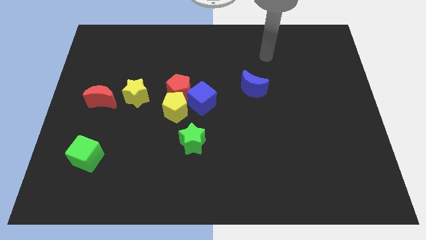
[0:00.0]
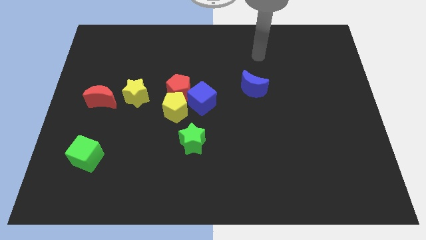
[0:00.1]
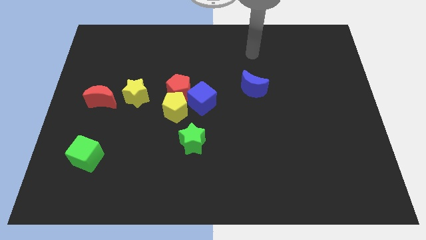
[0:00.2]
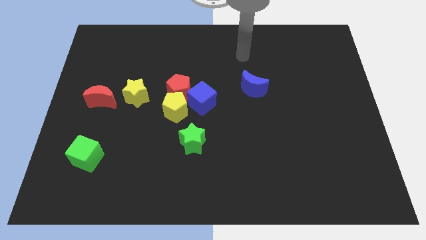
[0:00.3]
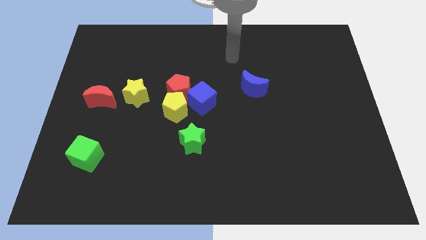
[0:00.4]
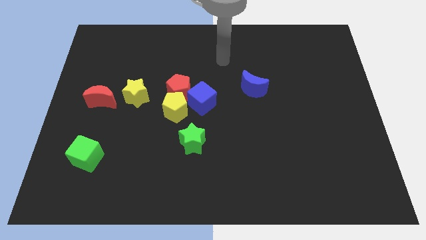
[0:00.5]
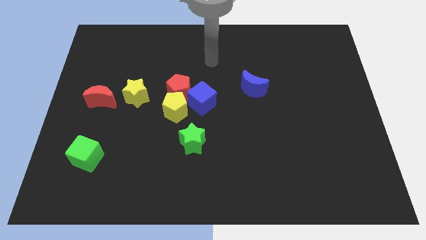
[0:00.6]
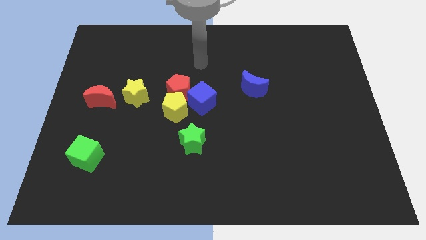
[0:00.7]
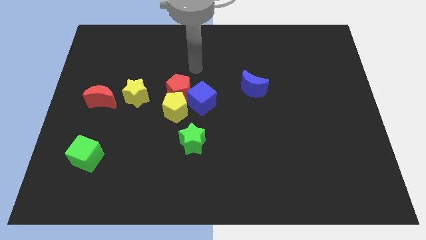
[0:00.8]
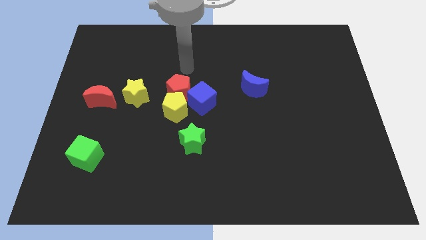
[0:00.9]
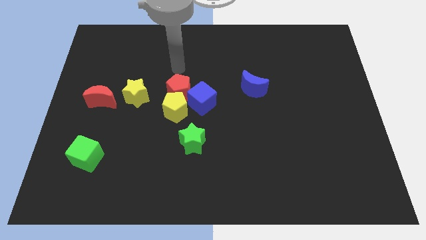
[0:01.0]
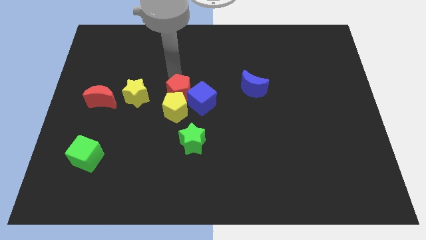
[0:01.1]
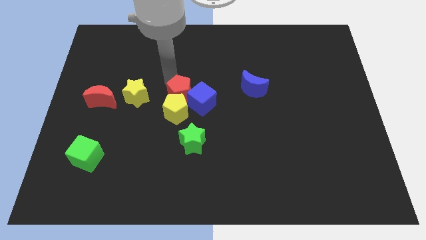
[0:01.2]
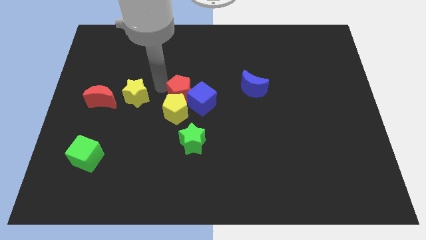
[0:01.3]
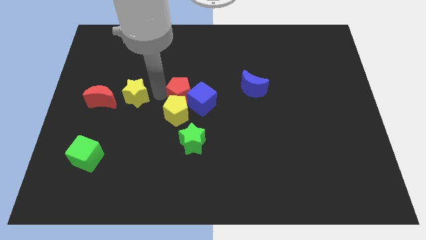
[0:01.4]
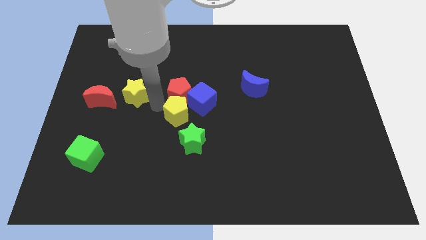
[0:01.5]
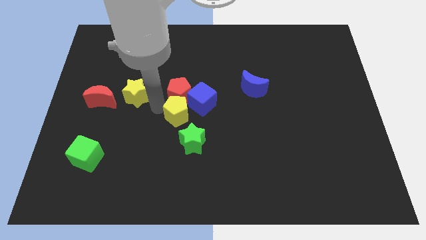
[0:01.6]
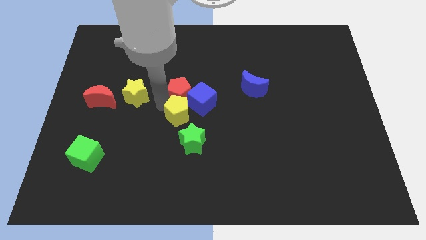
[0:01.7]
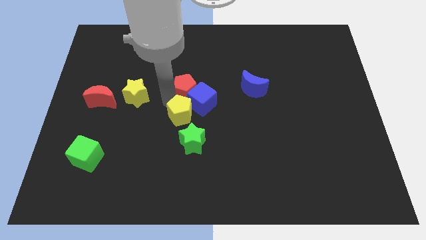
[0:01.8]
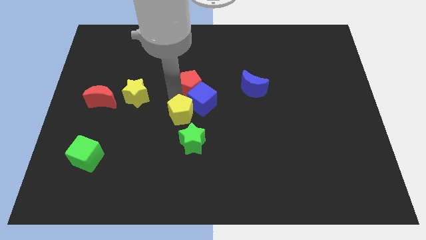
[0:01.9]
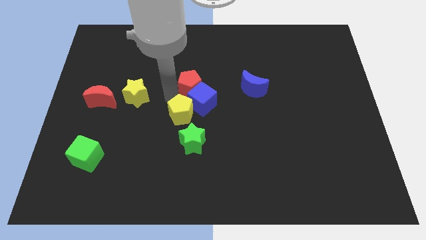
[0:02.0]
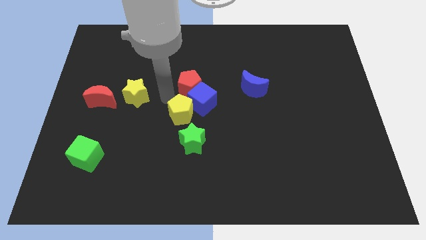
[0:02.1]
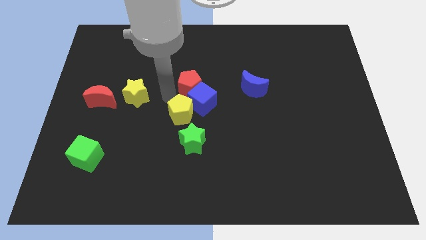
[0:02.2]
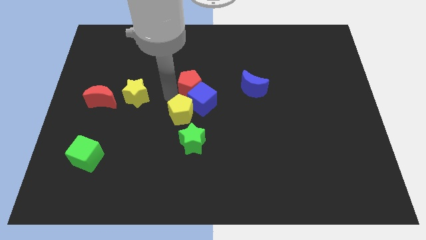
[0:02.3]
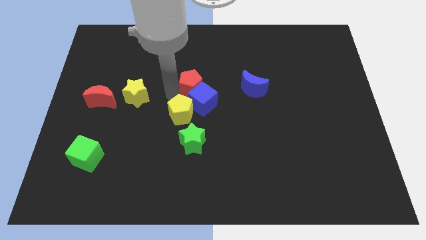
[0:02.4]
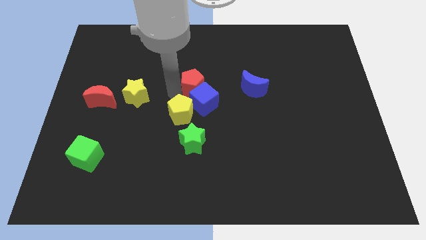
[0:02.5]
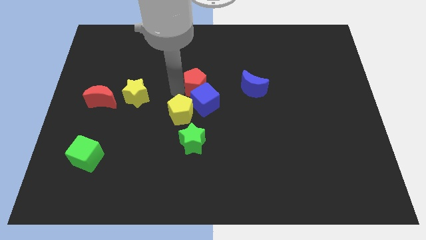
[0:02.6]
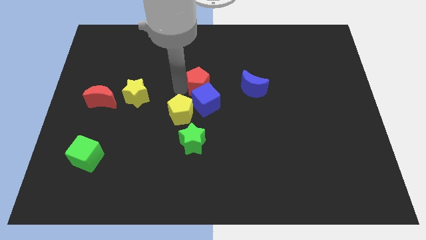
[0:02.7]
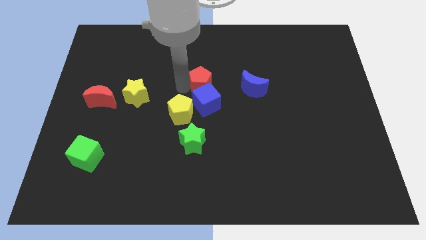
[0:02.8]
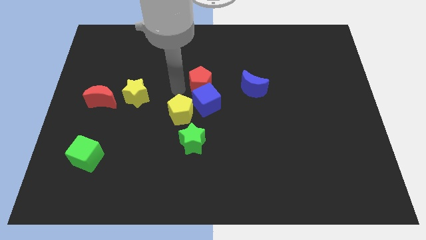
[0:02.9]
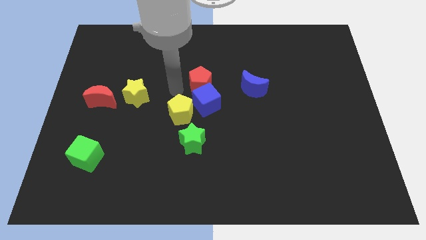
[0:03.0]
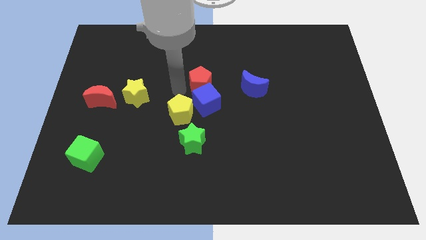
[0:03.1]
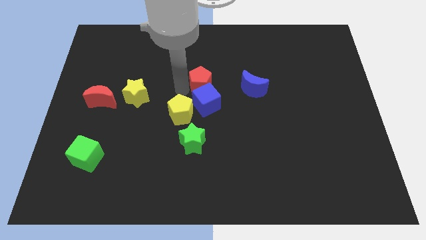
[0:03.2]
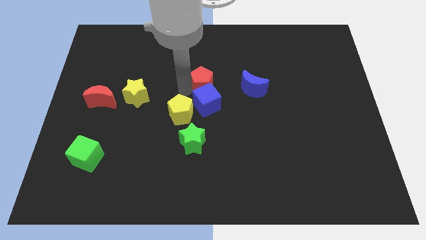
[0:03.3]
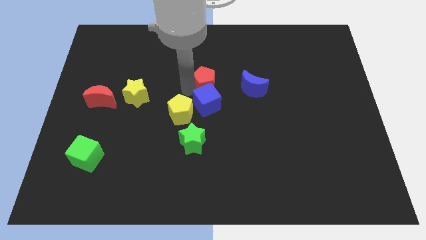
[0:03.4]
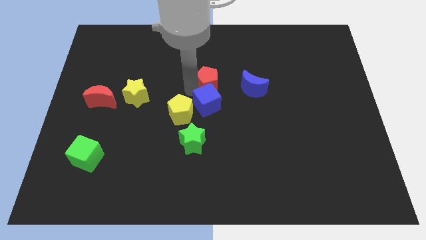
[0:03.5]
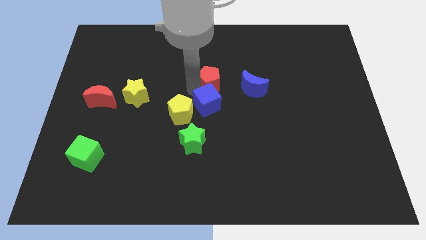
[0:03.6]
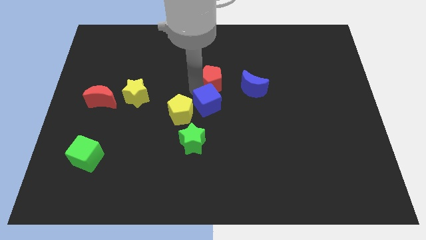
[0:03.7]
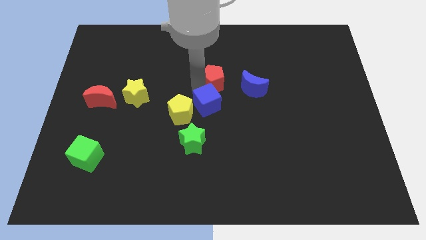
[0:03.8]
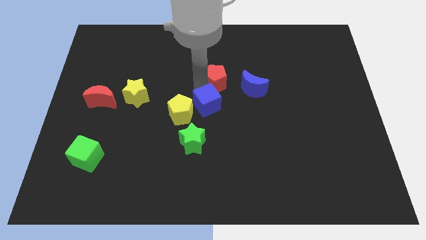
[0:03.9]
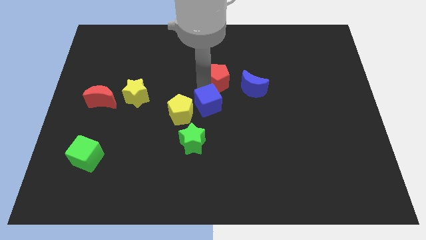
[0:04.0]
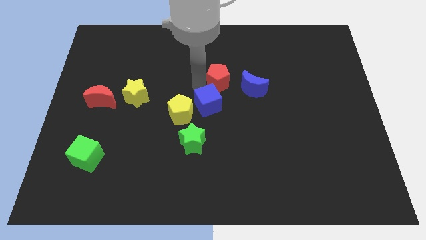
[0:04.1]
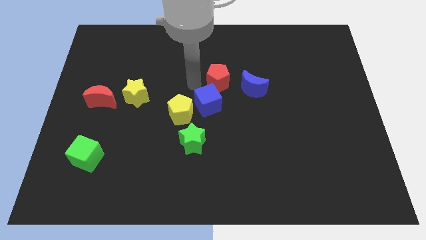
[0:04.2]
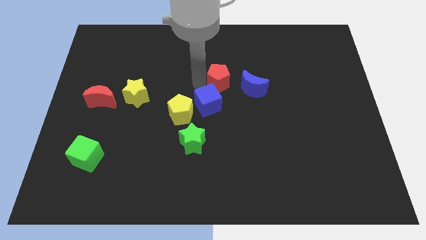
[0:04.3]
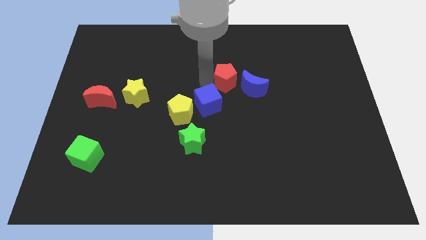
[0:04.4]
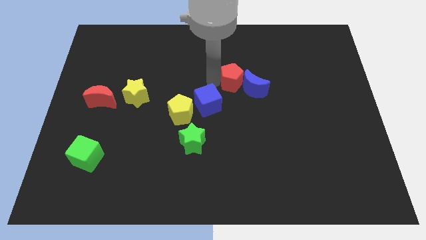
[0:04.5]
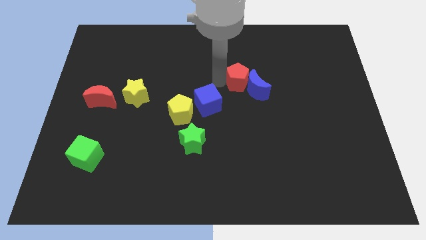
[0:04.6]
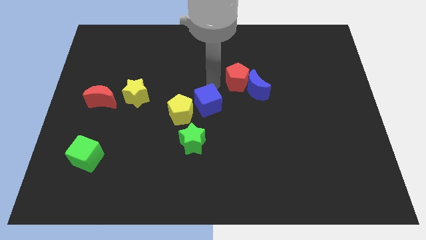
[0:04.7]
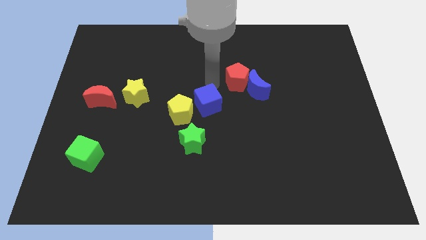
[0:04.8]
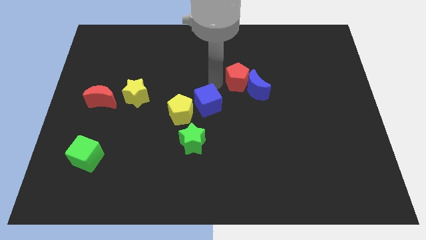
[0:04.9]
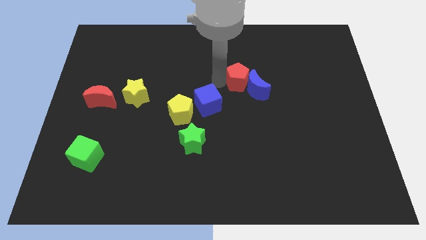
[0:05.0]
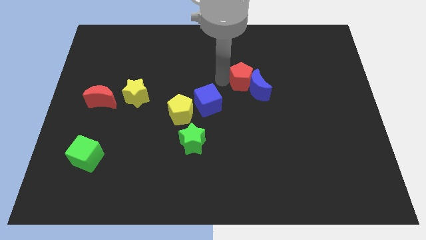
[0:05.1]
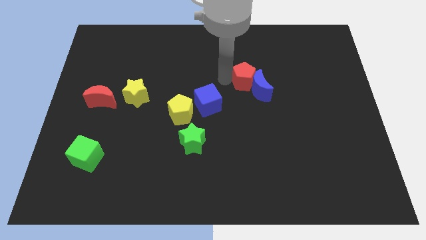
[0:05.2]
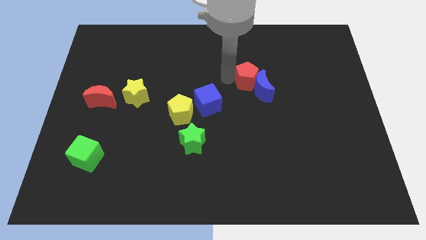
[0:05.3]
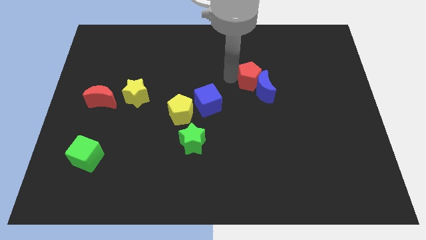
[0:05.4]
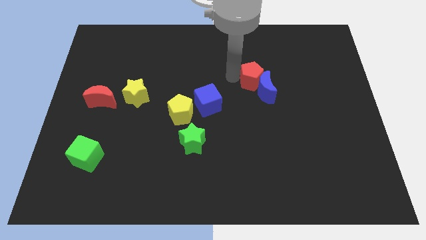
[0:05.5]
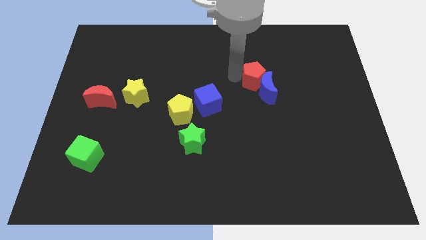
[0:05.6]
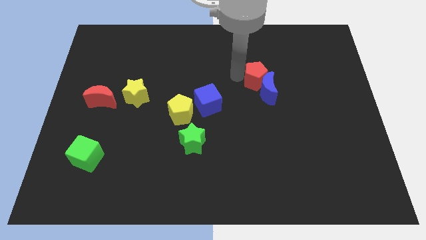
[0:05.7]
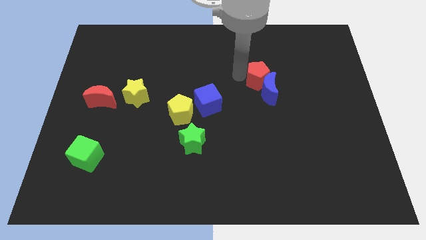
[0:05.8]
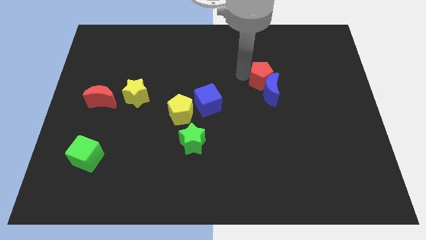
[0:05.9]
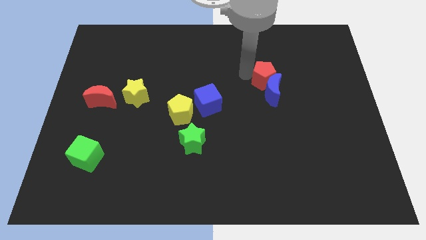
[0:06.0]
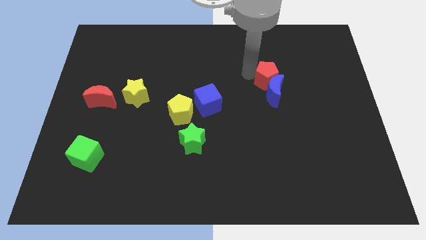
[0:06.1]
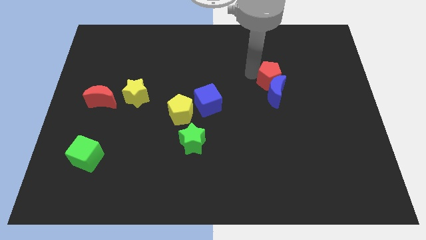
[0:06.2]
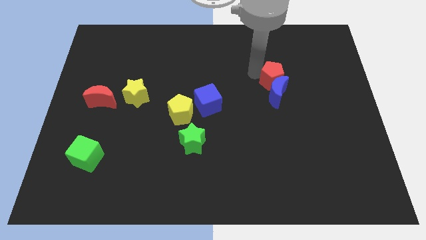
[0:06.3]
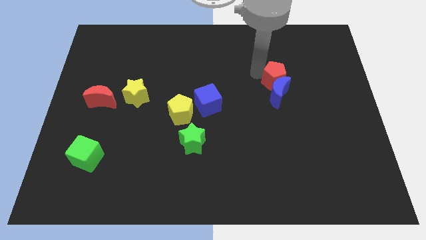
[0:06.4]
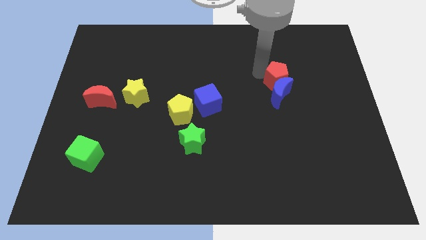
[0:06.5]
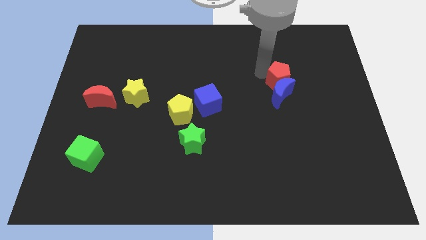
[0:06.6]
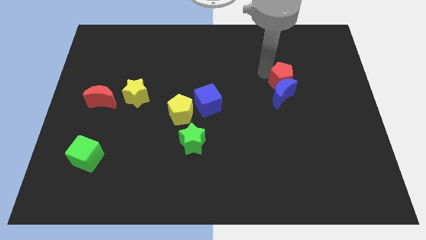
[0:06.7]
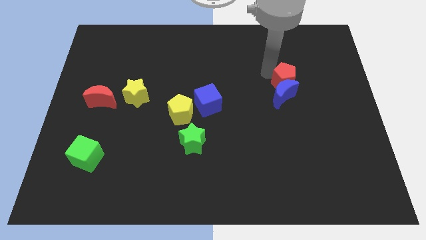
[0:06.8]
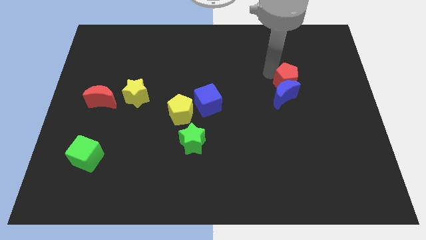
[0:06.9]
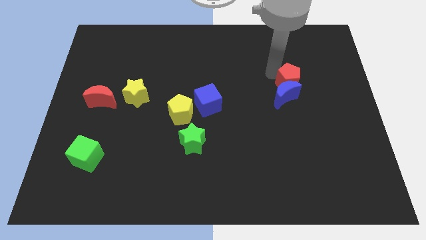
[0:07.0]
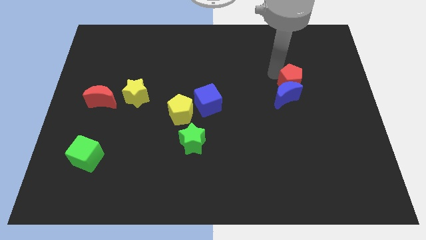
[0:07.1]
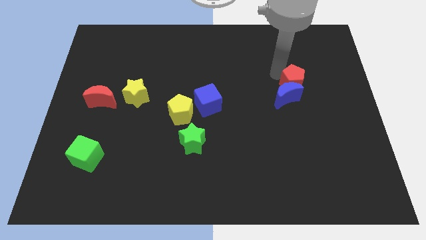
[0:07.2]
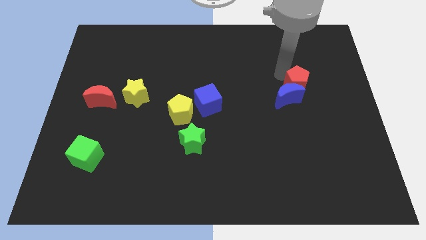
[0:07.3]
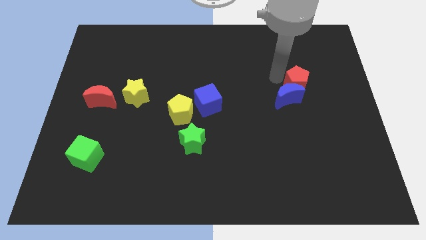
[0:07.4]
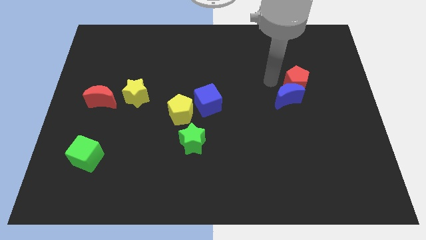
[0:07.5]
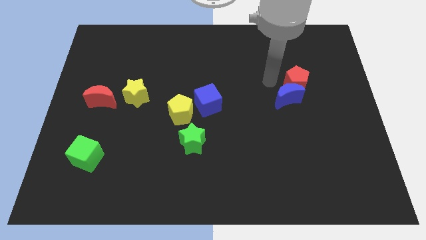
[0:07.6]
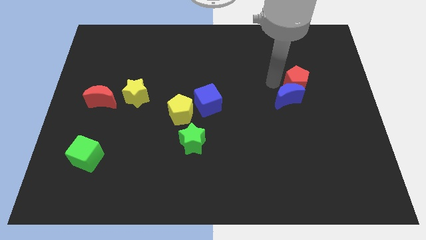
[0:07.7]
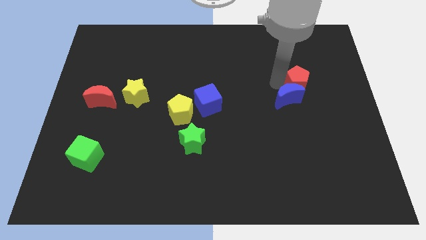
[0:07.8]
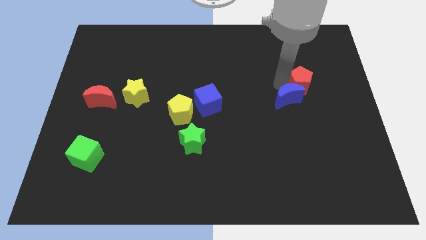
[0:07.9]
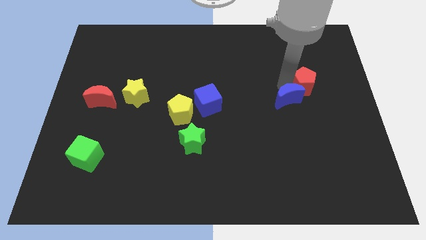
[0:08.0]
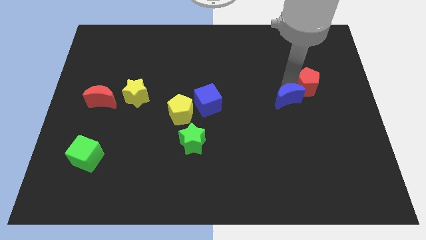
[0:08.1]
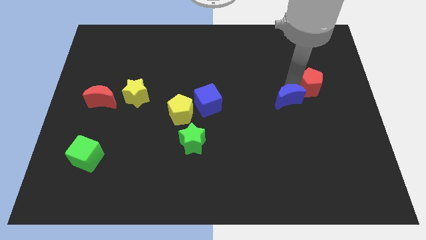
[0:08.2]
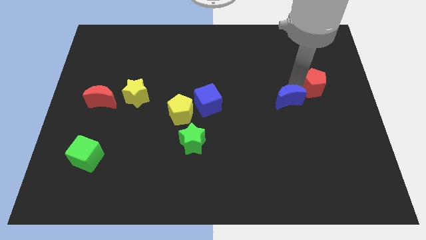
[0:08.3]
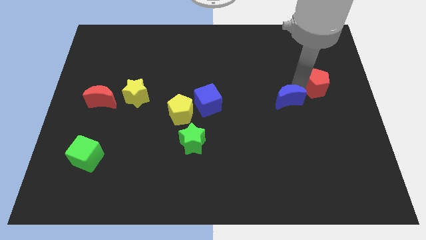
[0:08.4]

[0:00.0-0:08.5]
move the red pentagon to the right side
